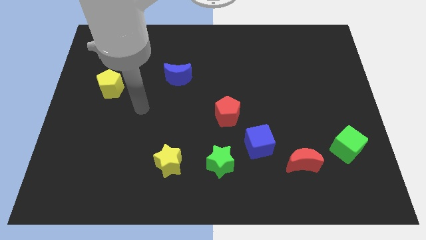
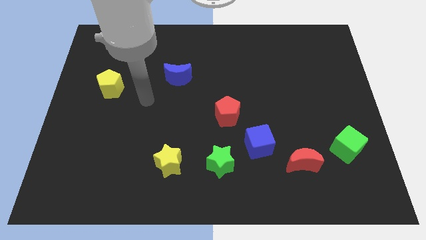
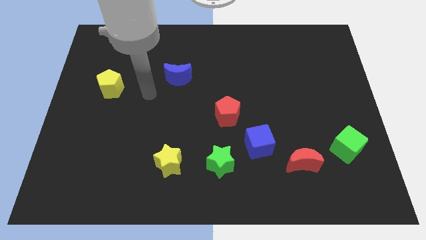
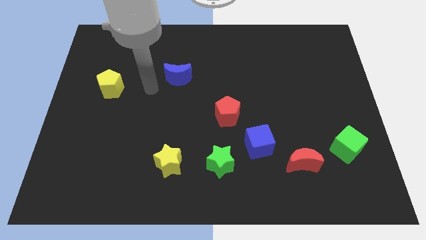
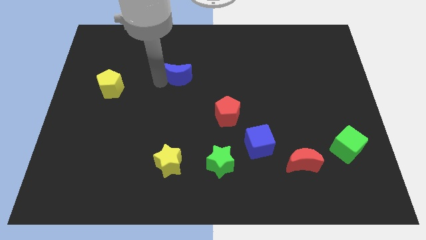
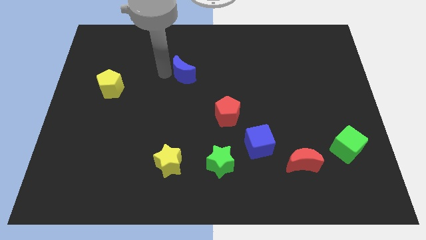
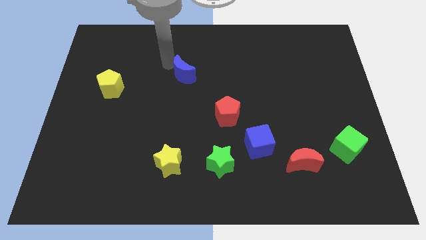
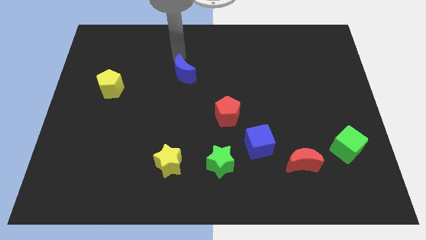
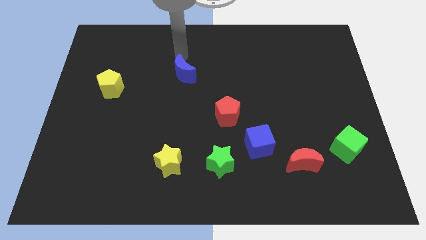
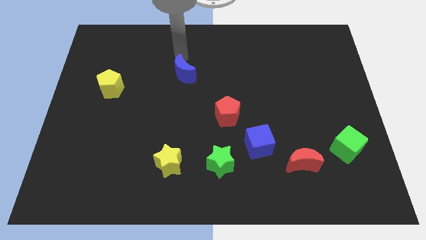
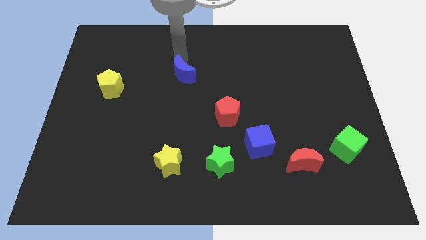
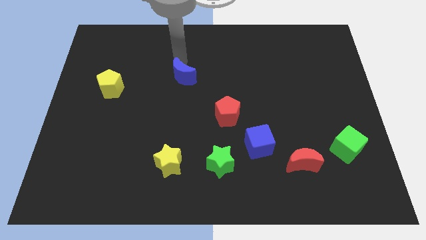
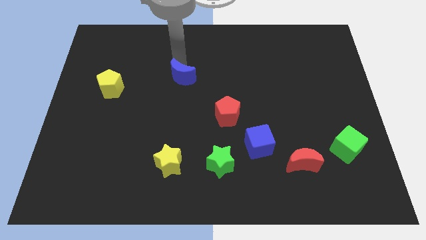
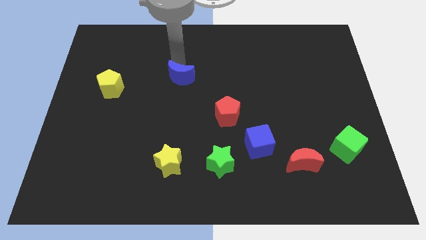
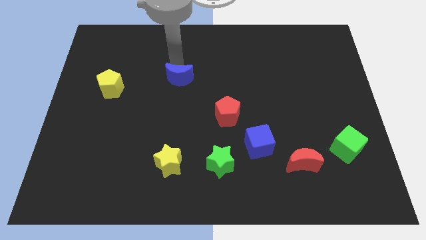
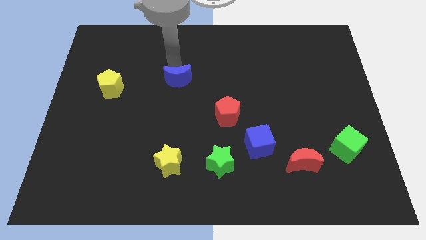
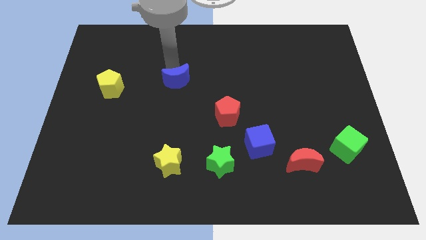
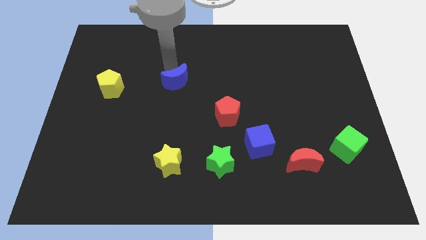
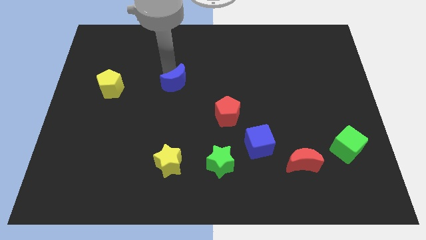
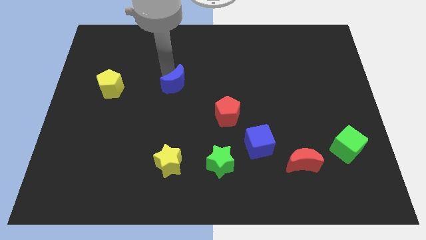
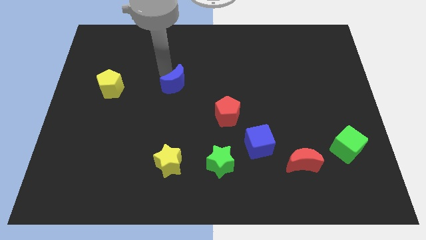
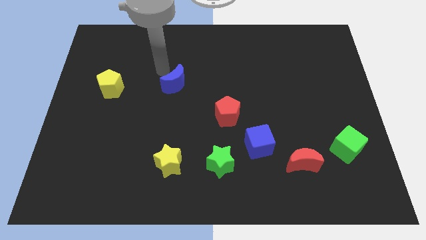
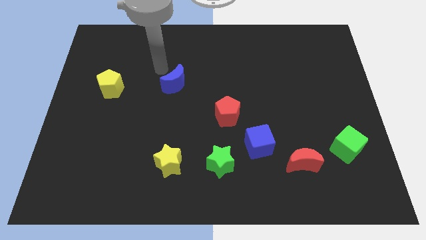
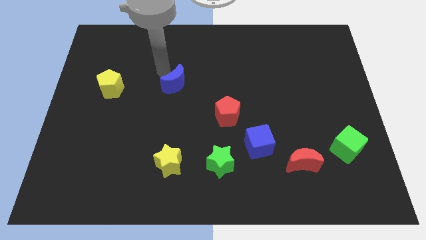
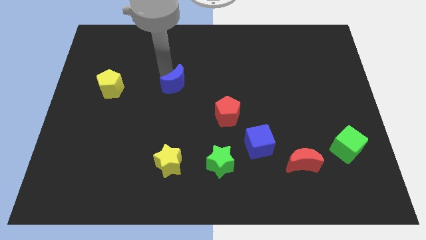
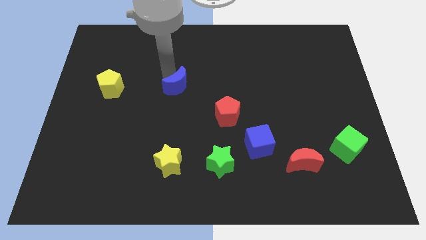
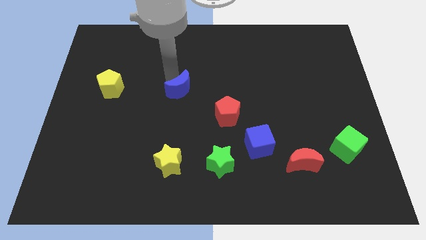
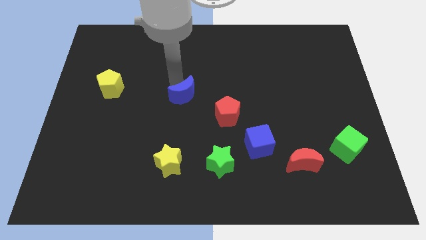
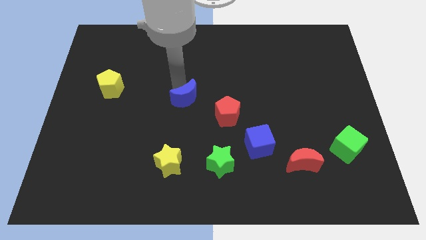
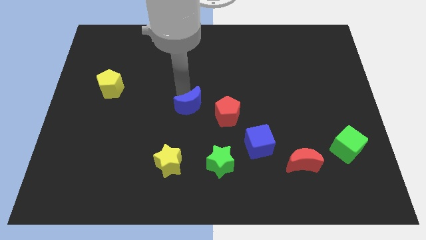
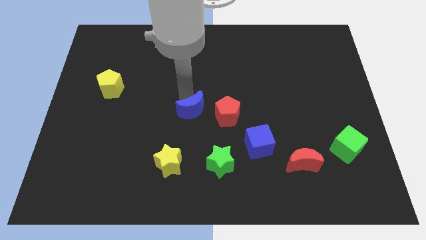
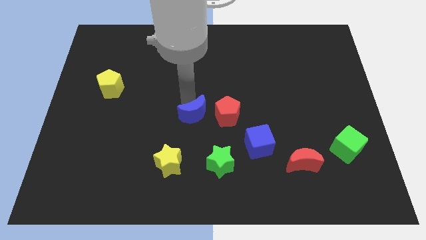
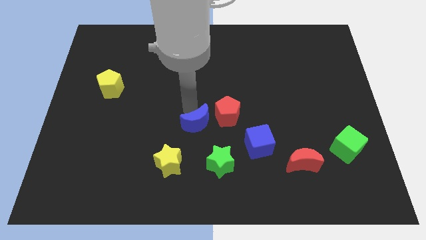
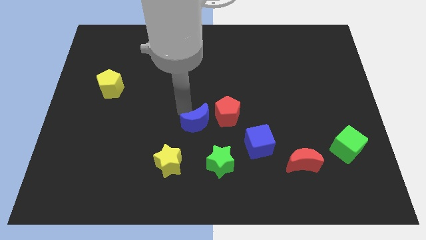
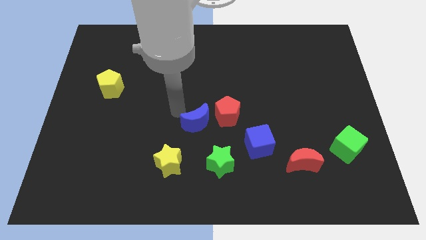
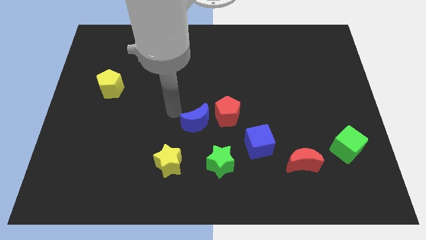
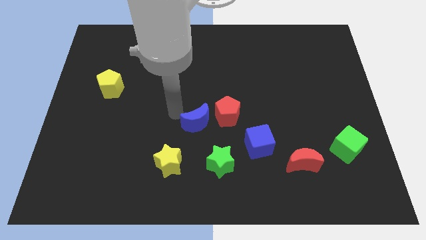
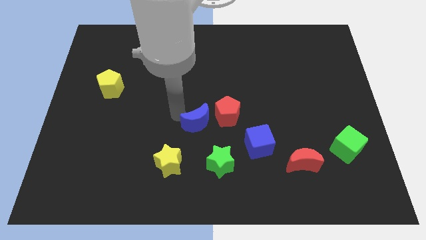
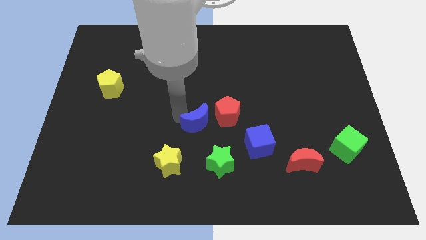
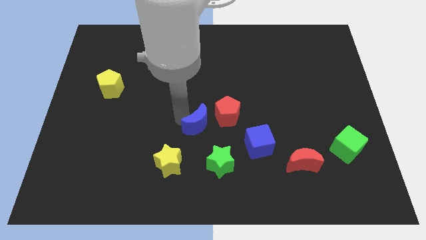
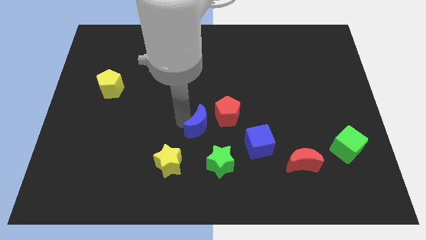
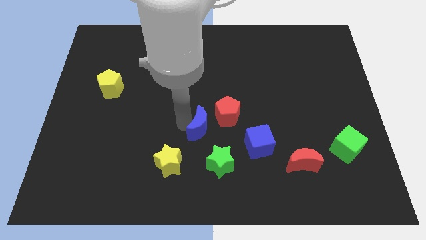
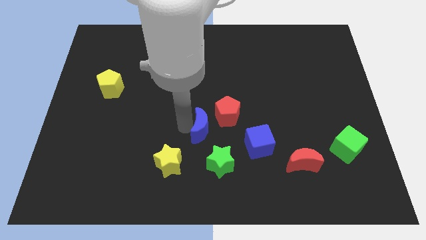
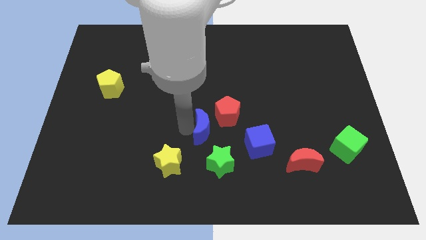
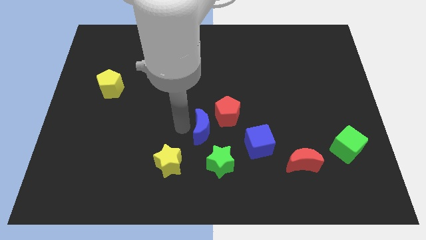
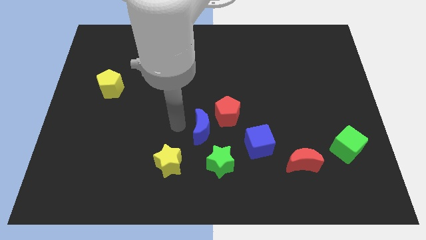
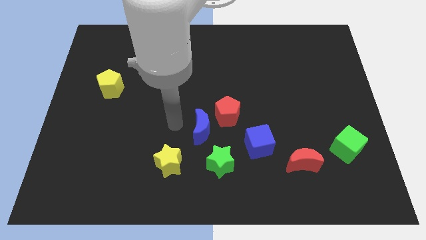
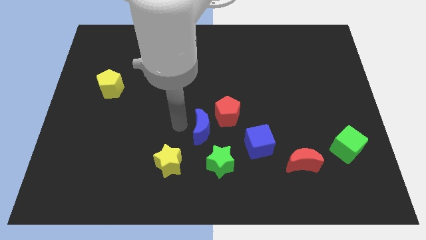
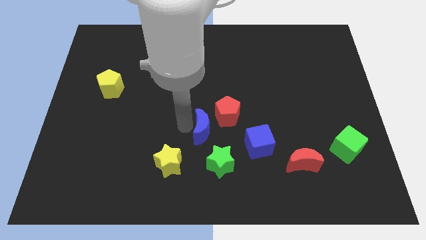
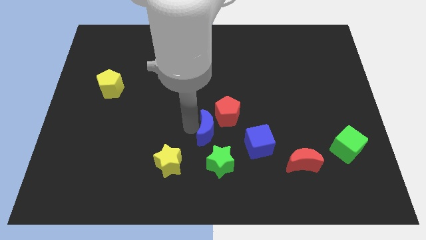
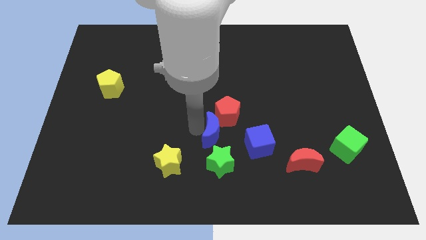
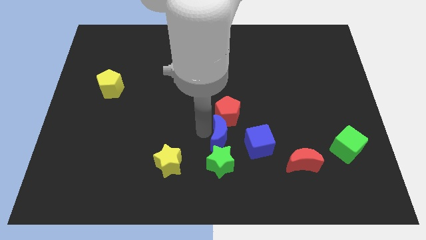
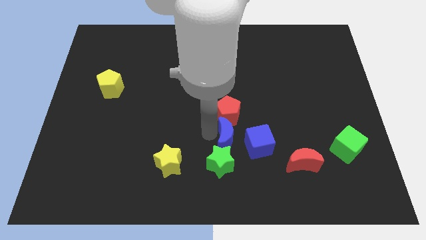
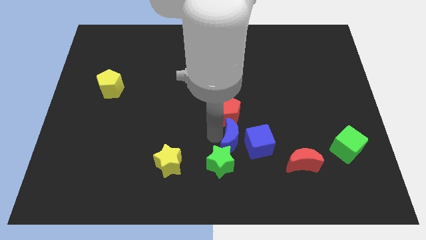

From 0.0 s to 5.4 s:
move the blue moon close to the blue cube

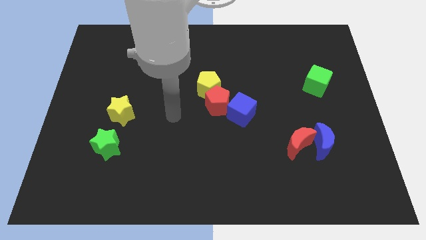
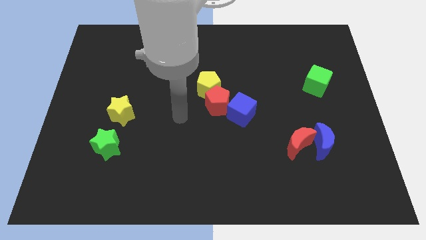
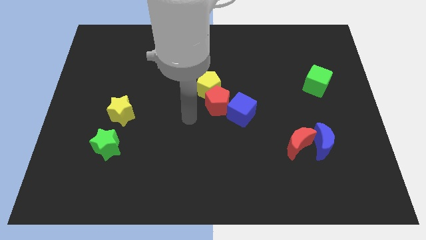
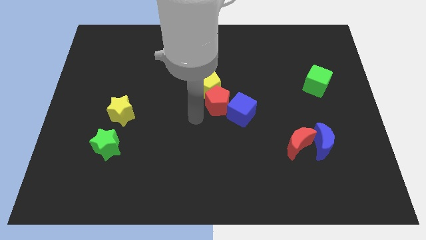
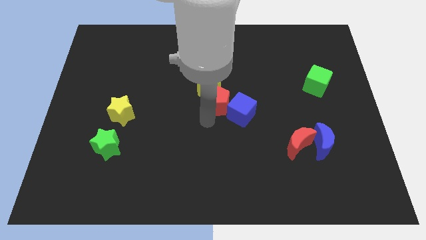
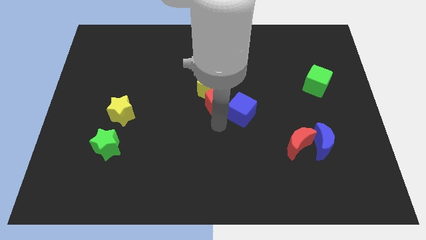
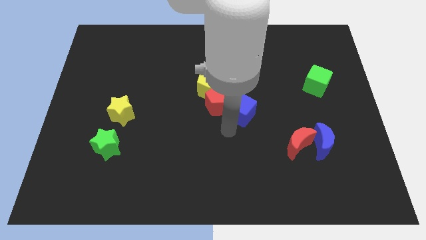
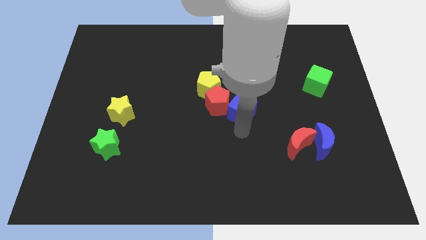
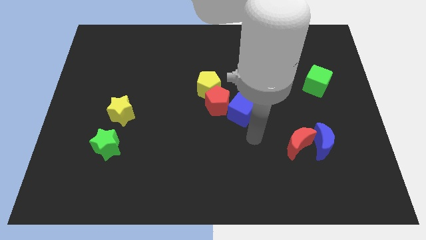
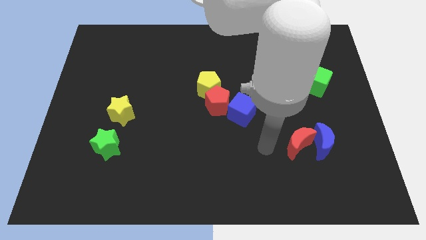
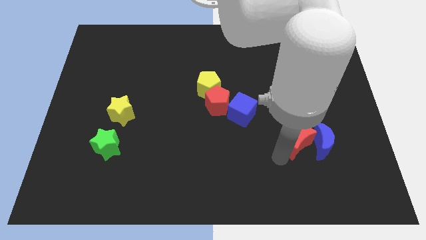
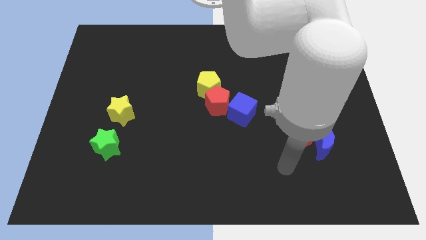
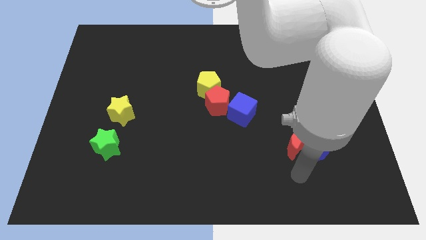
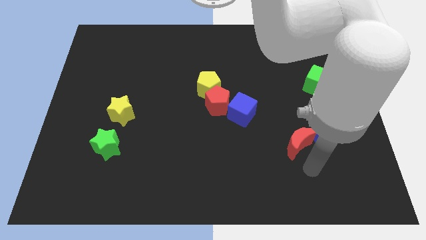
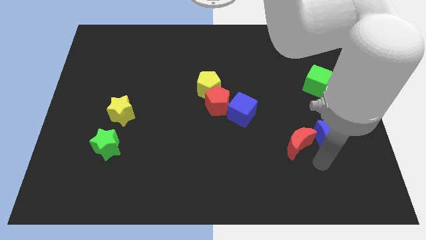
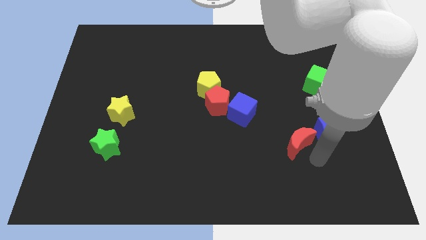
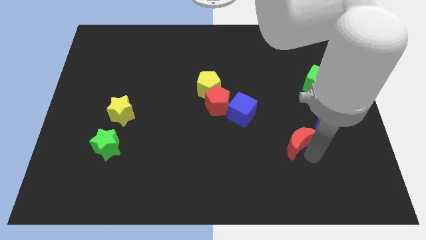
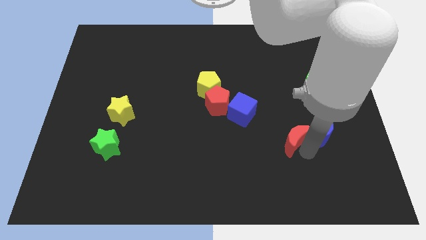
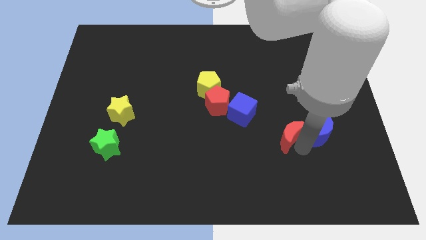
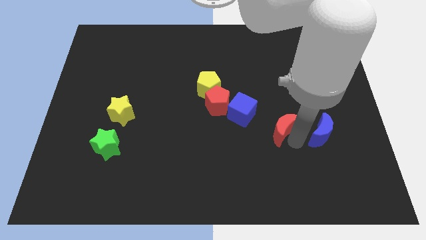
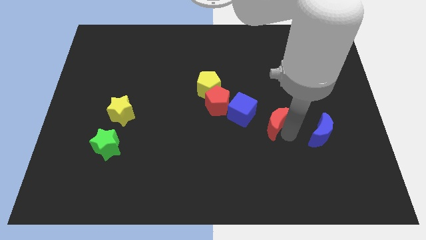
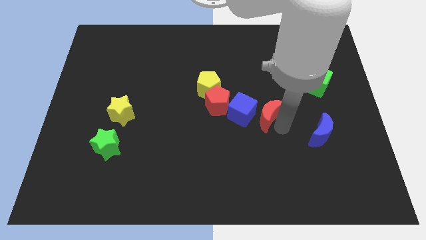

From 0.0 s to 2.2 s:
push the red moon next to the blue cube
